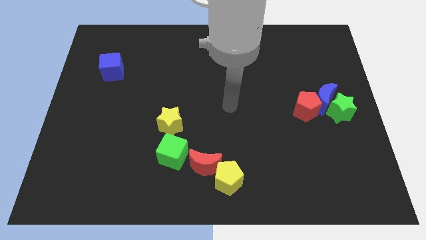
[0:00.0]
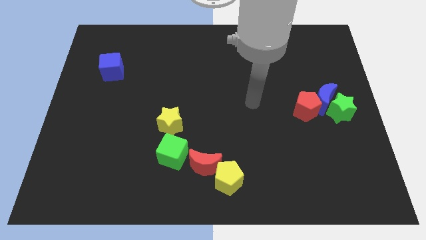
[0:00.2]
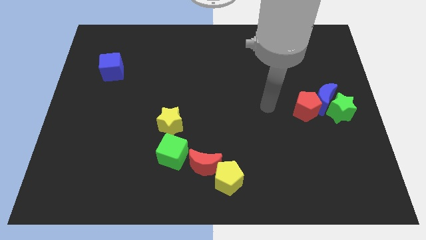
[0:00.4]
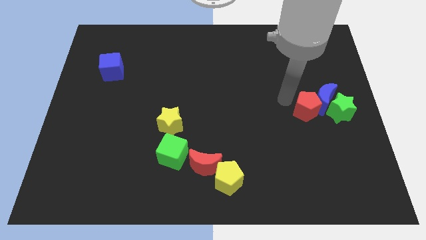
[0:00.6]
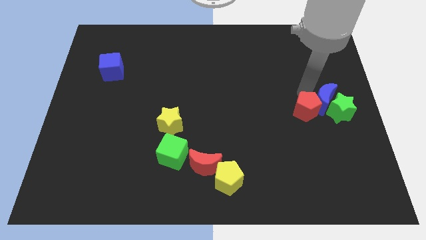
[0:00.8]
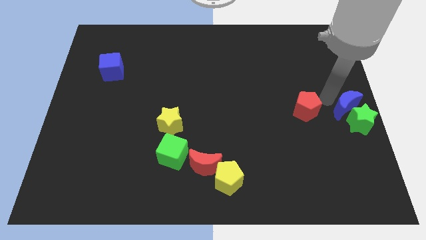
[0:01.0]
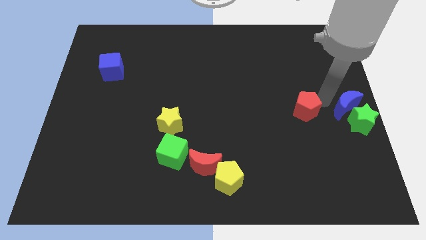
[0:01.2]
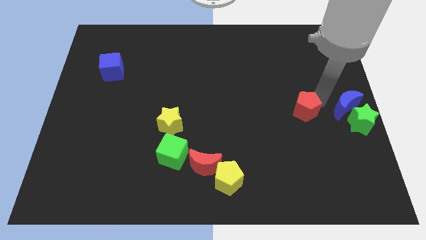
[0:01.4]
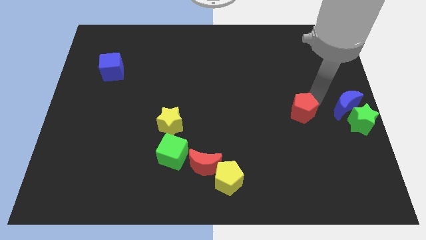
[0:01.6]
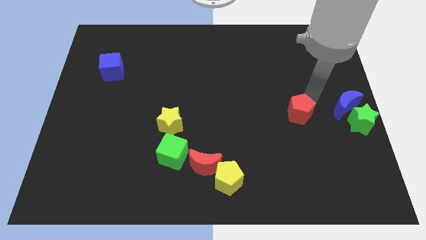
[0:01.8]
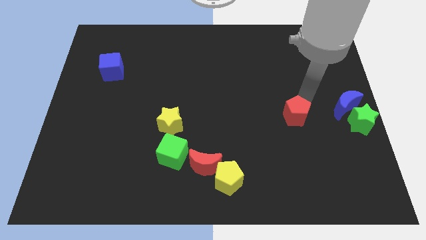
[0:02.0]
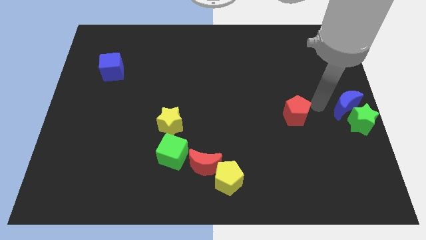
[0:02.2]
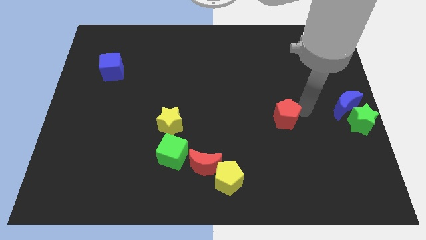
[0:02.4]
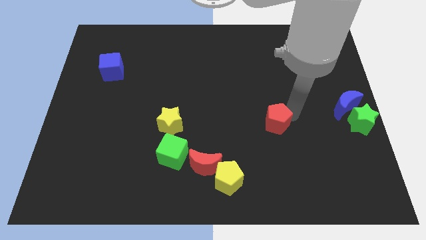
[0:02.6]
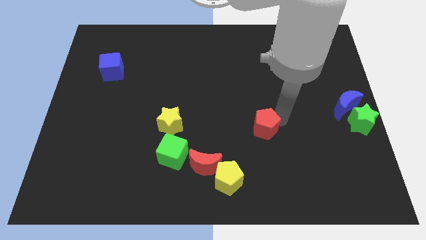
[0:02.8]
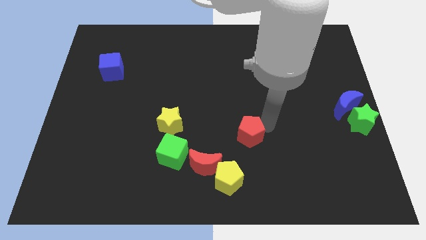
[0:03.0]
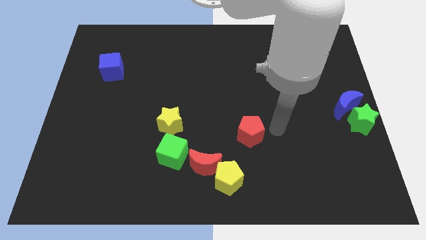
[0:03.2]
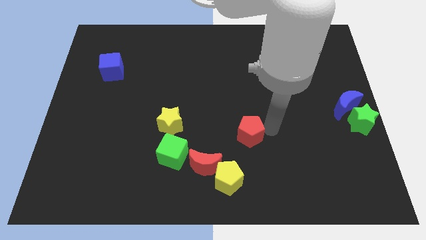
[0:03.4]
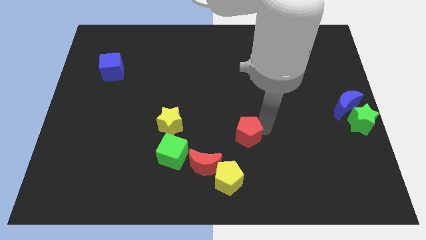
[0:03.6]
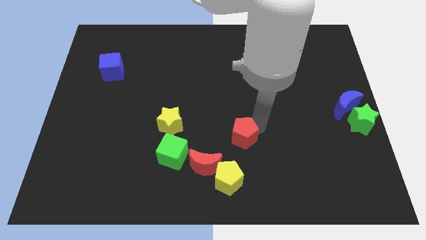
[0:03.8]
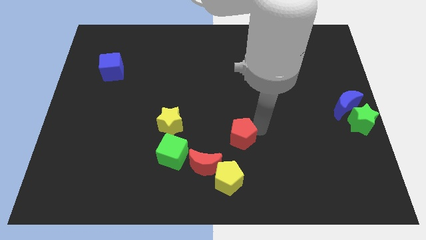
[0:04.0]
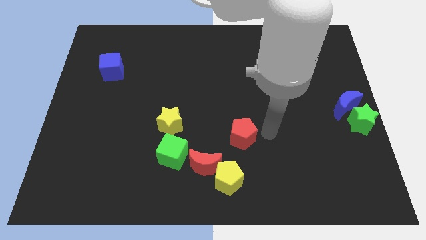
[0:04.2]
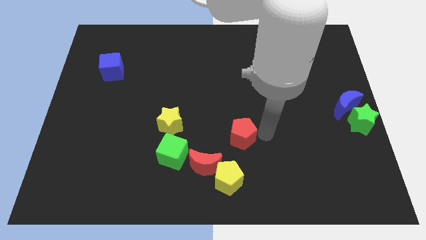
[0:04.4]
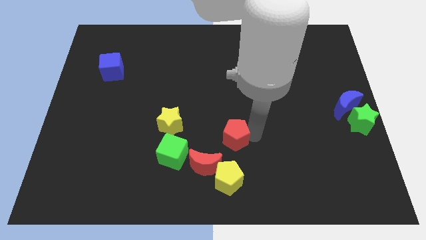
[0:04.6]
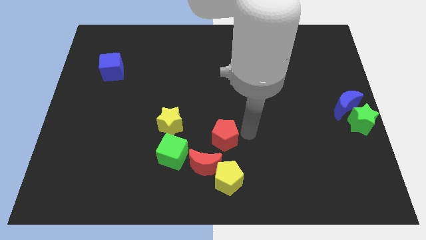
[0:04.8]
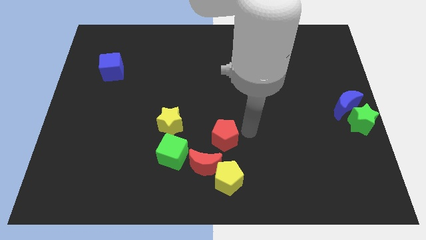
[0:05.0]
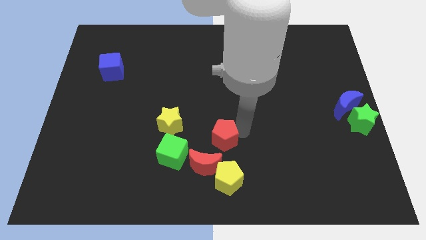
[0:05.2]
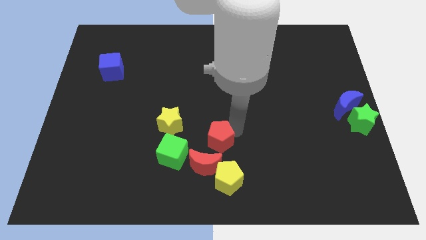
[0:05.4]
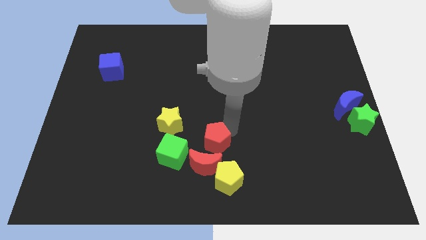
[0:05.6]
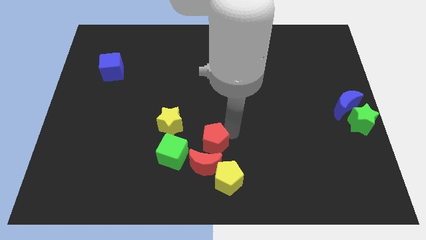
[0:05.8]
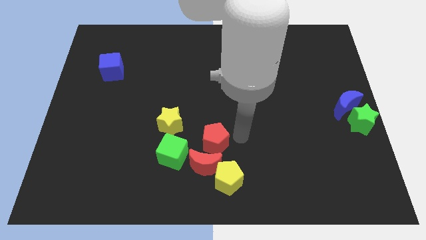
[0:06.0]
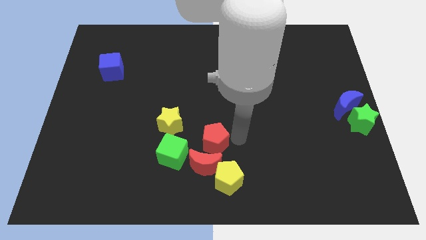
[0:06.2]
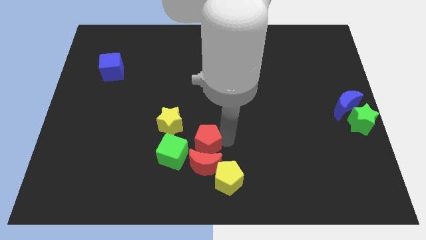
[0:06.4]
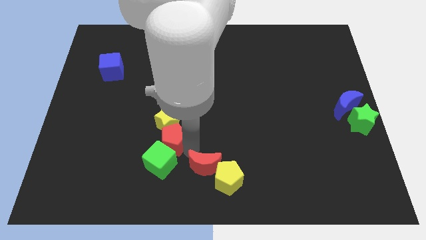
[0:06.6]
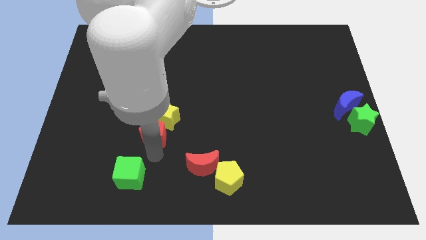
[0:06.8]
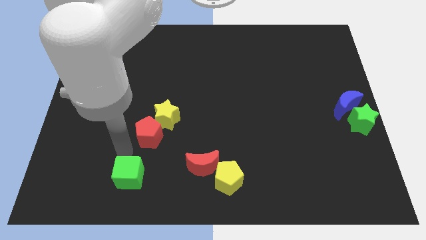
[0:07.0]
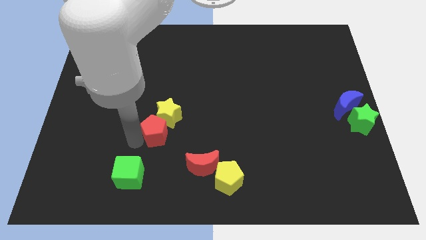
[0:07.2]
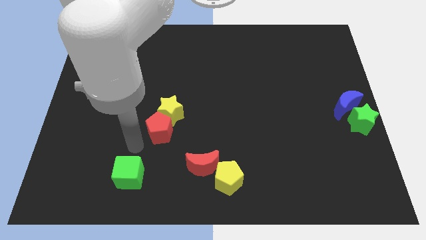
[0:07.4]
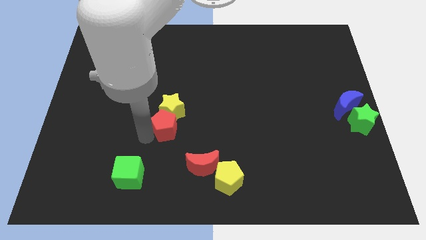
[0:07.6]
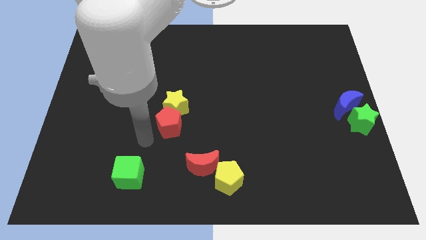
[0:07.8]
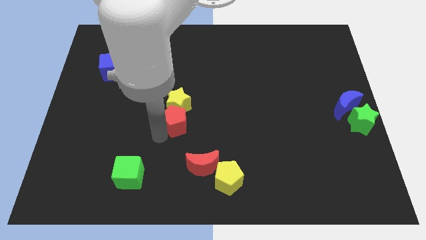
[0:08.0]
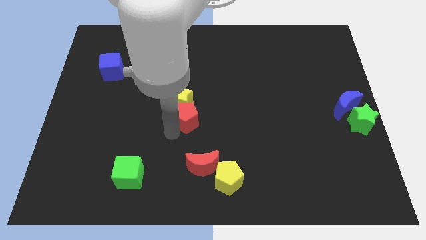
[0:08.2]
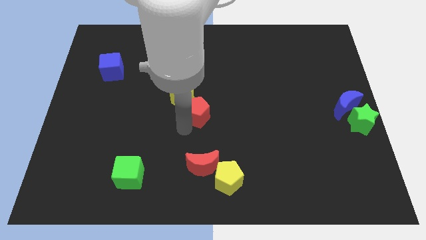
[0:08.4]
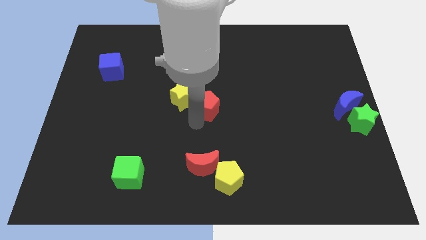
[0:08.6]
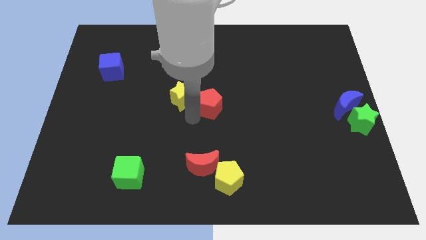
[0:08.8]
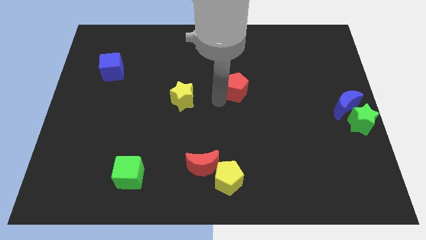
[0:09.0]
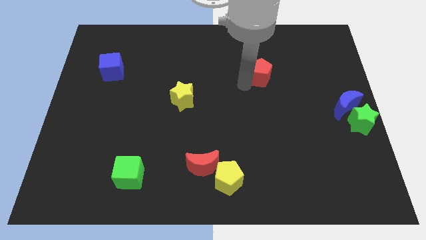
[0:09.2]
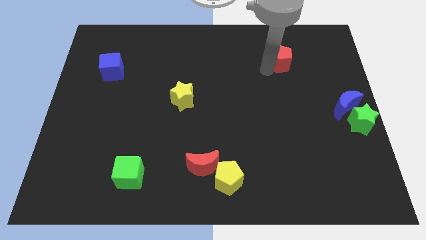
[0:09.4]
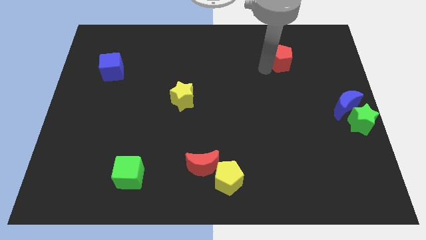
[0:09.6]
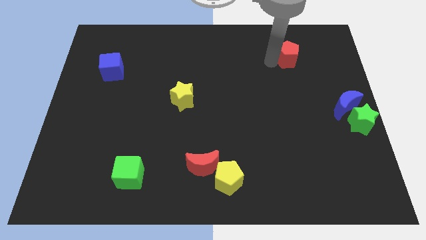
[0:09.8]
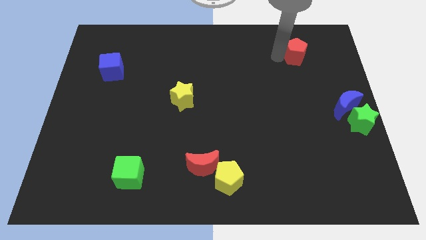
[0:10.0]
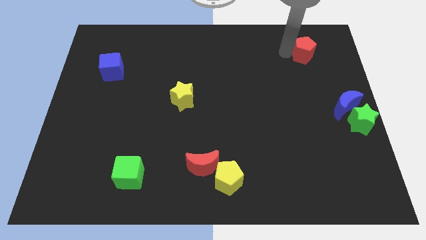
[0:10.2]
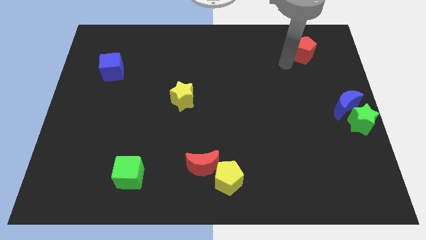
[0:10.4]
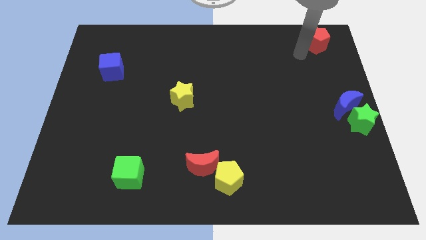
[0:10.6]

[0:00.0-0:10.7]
move the red pentagon to the top right of the board

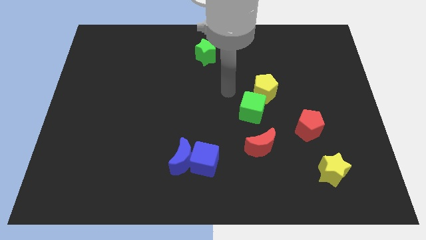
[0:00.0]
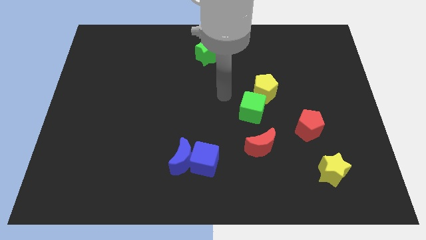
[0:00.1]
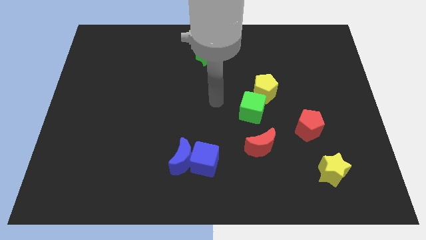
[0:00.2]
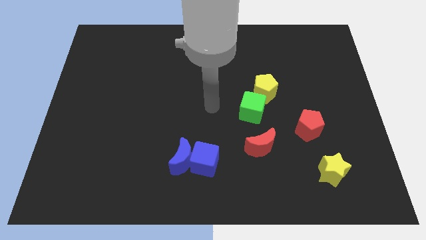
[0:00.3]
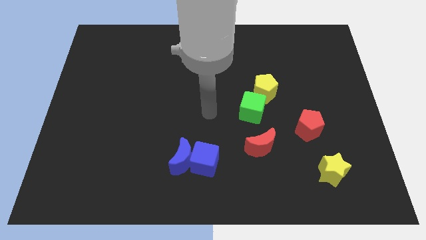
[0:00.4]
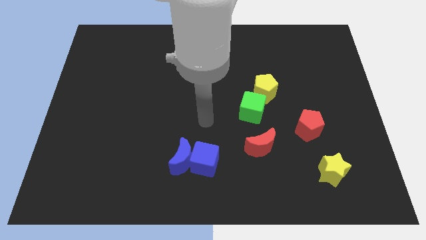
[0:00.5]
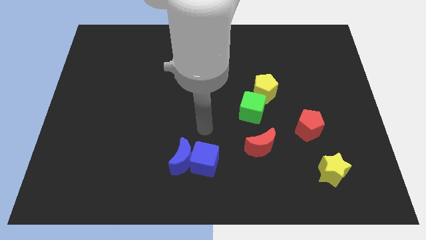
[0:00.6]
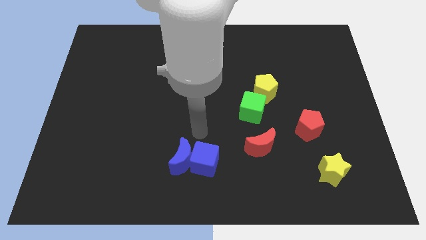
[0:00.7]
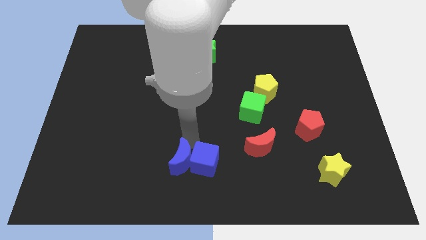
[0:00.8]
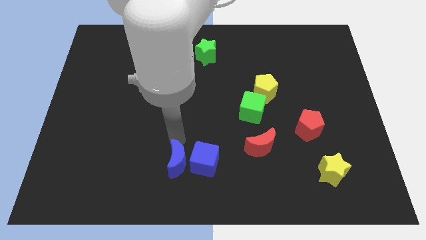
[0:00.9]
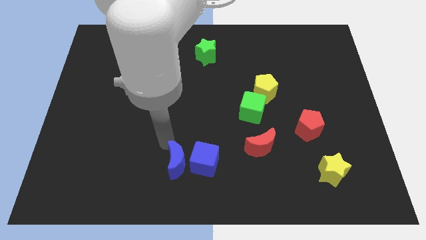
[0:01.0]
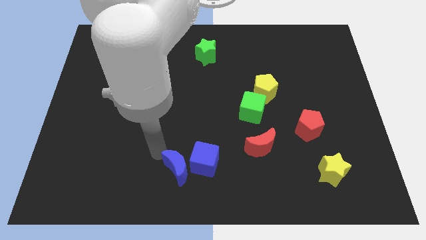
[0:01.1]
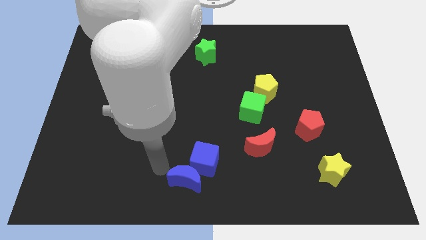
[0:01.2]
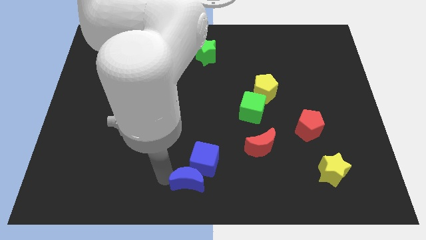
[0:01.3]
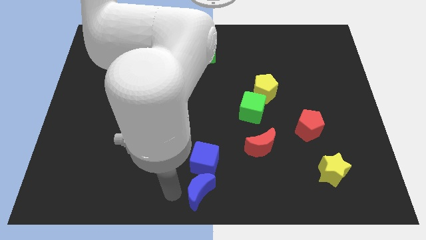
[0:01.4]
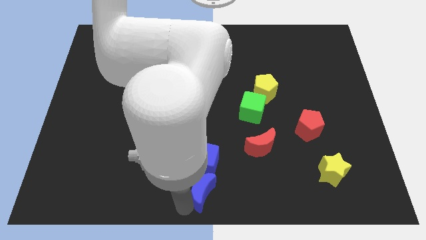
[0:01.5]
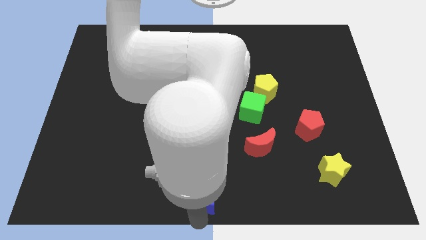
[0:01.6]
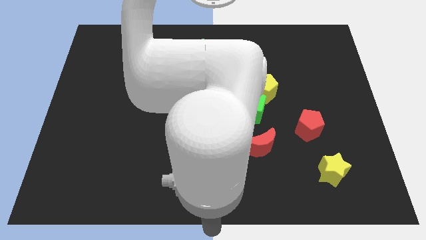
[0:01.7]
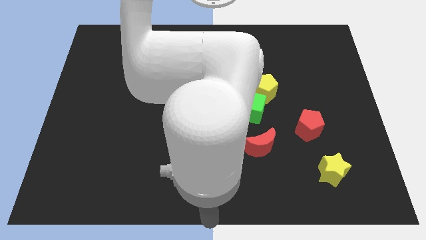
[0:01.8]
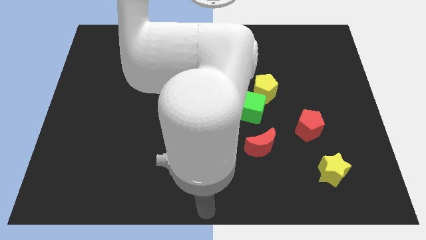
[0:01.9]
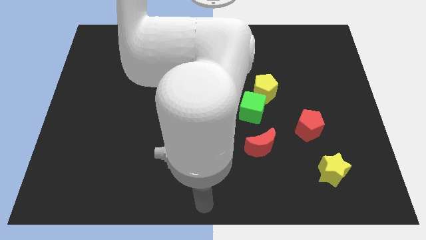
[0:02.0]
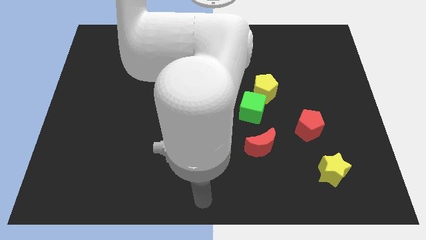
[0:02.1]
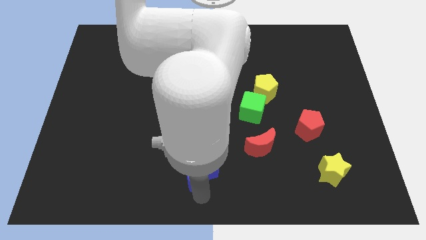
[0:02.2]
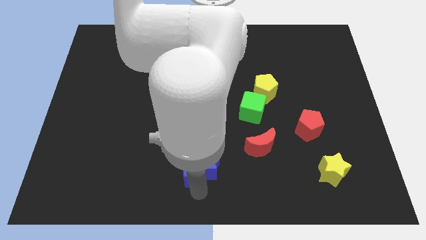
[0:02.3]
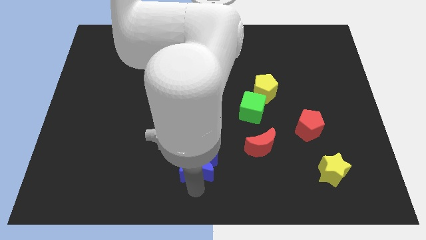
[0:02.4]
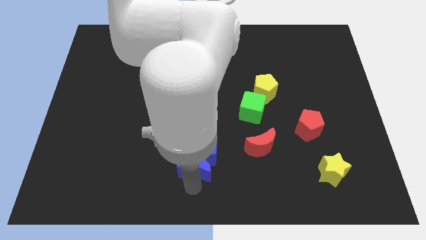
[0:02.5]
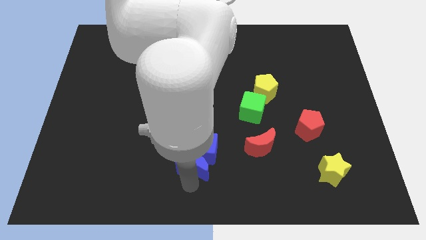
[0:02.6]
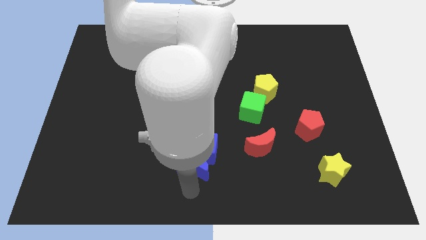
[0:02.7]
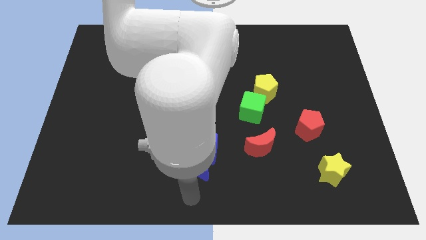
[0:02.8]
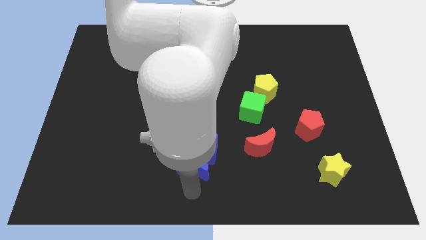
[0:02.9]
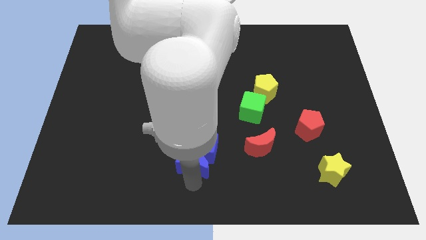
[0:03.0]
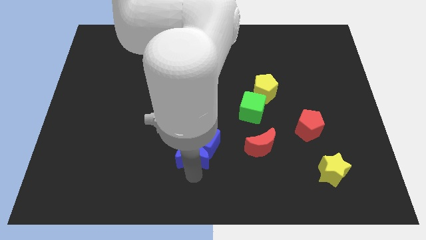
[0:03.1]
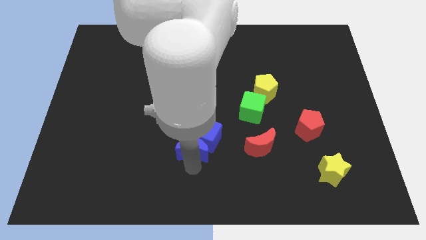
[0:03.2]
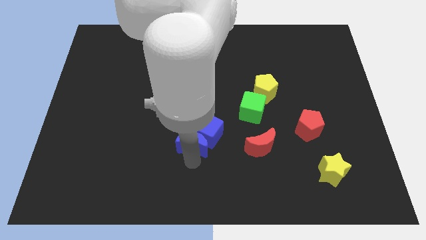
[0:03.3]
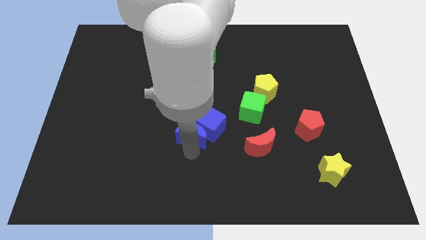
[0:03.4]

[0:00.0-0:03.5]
push the blue moon to the middle
